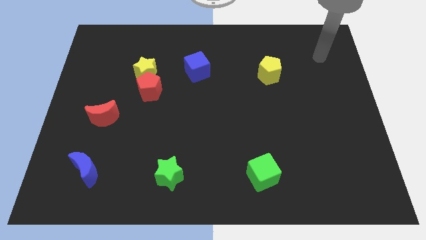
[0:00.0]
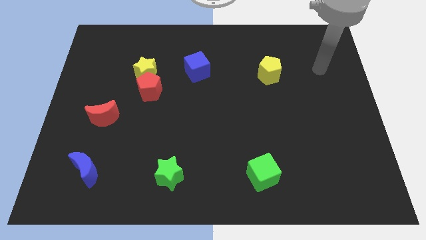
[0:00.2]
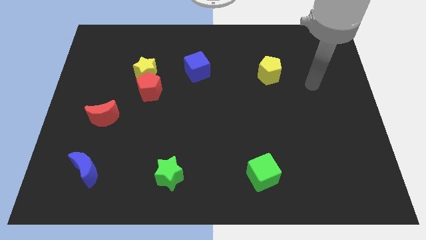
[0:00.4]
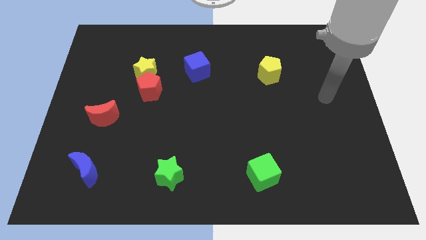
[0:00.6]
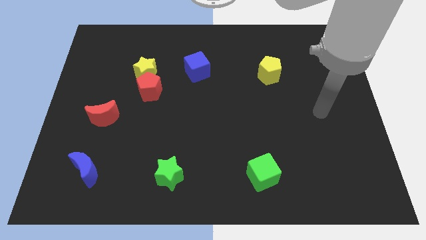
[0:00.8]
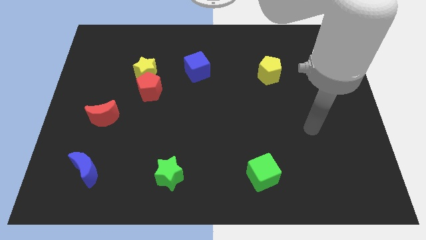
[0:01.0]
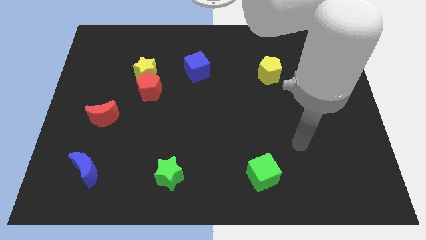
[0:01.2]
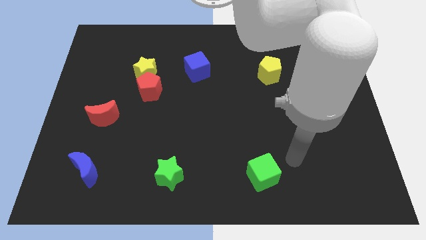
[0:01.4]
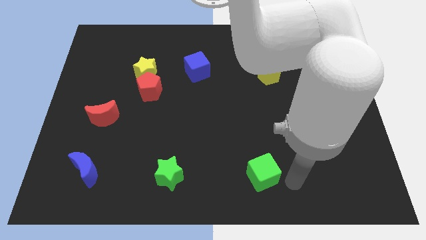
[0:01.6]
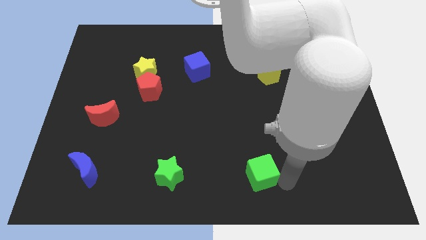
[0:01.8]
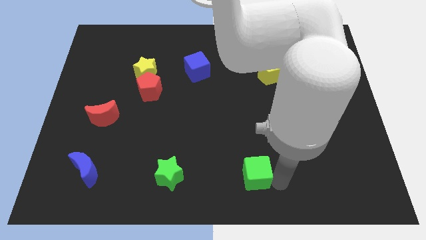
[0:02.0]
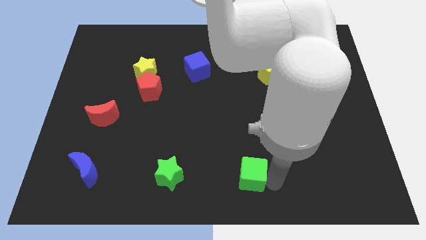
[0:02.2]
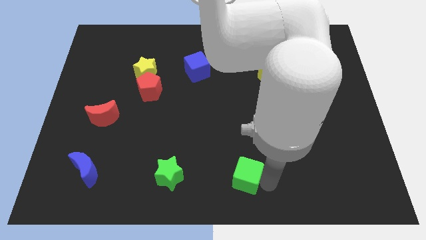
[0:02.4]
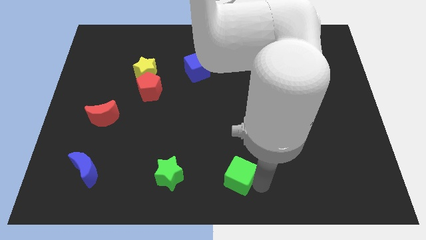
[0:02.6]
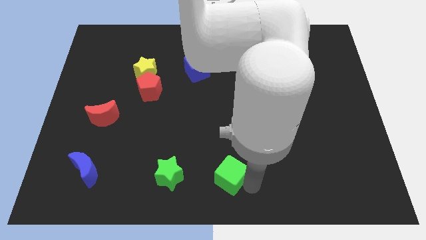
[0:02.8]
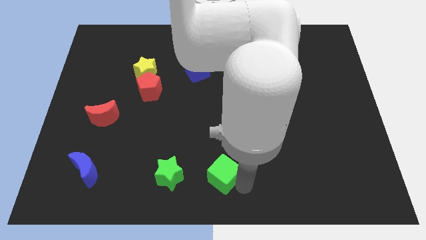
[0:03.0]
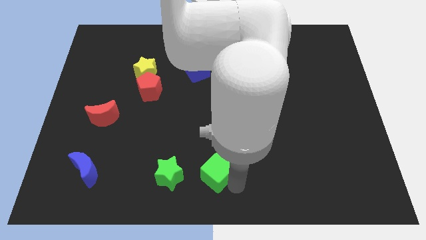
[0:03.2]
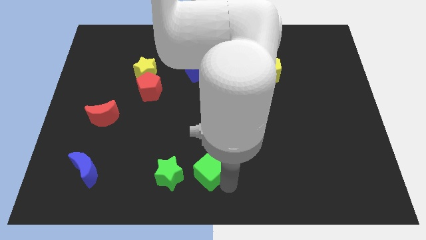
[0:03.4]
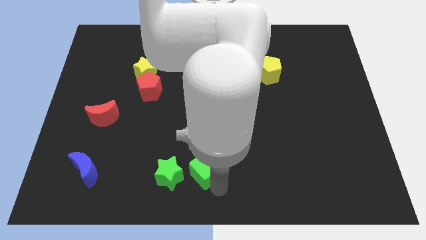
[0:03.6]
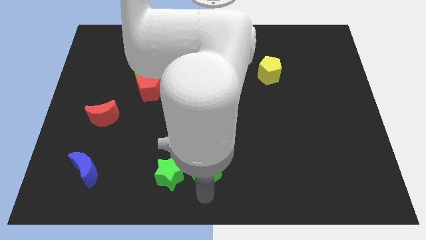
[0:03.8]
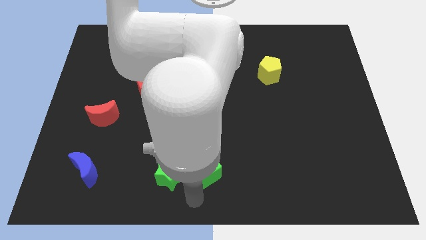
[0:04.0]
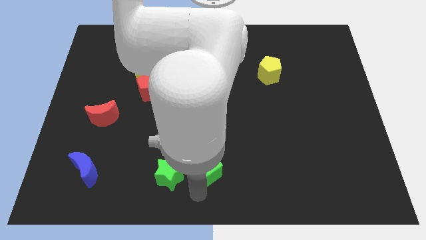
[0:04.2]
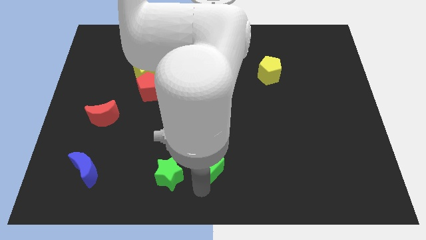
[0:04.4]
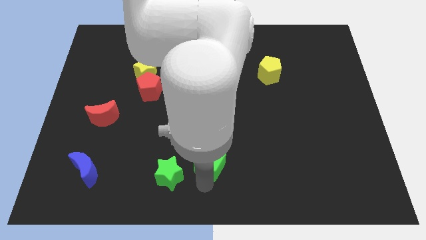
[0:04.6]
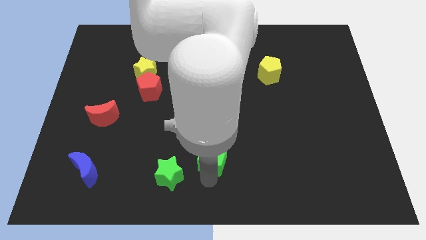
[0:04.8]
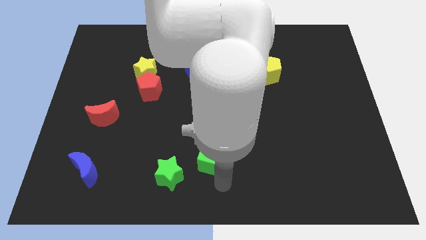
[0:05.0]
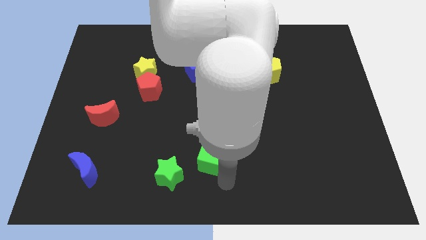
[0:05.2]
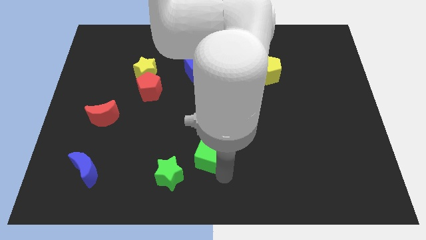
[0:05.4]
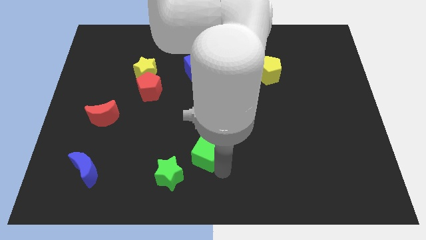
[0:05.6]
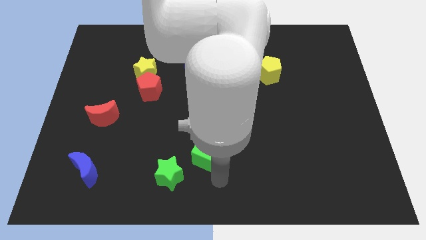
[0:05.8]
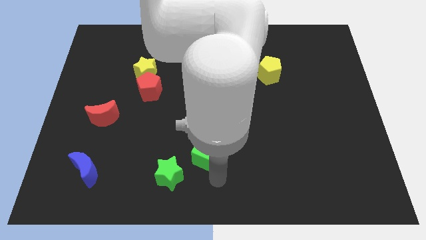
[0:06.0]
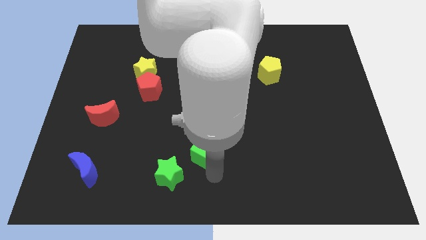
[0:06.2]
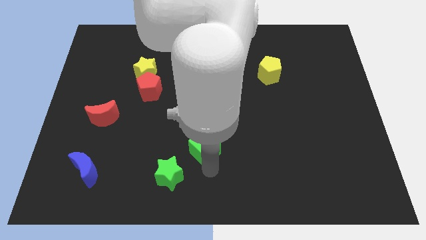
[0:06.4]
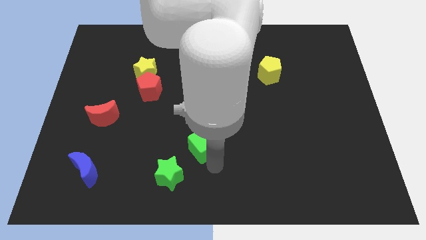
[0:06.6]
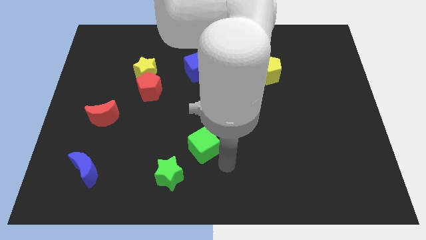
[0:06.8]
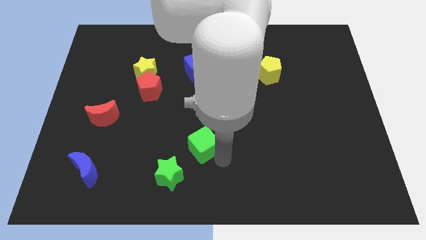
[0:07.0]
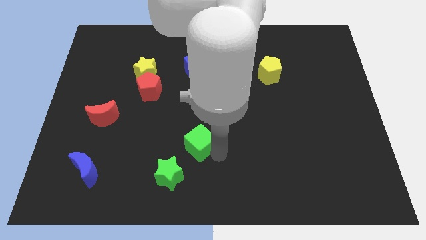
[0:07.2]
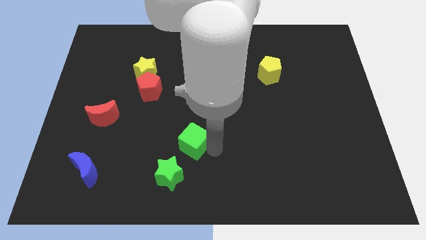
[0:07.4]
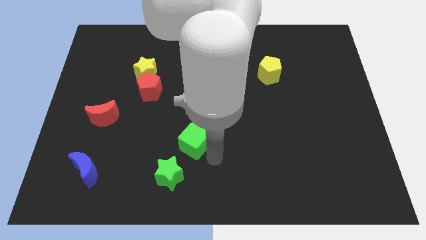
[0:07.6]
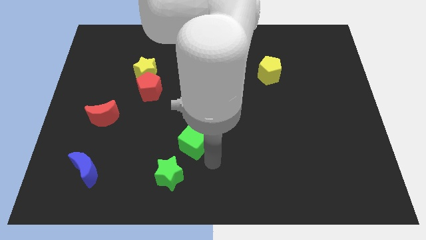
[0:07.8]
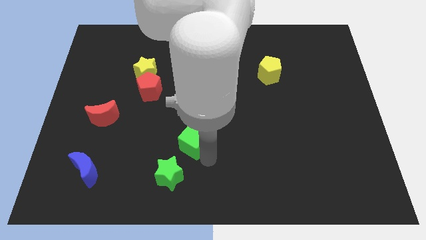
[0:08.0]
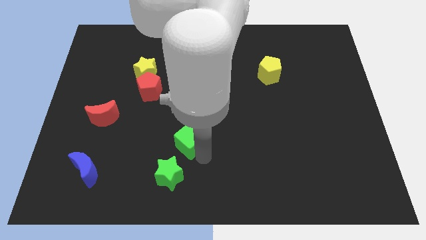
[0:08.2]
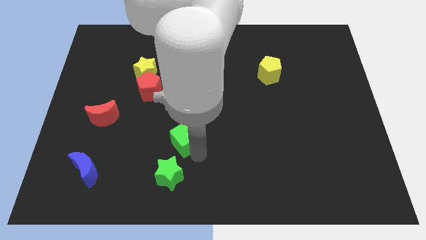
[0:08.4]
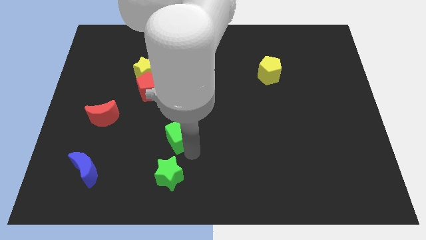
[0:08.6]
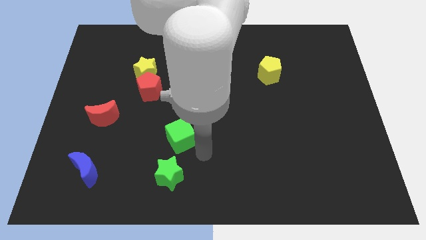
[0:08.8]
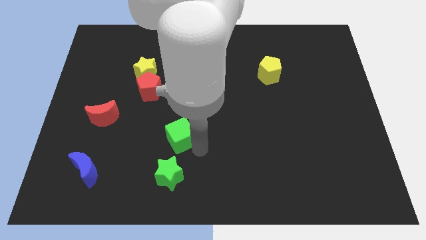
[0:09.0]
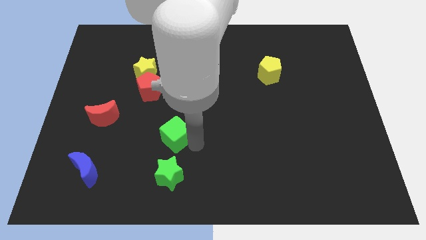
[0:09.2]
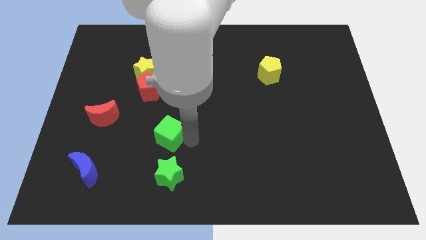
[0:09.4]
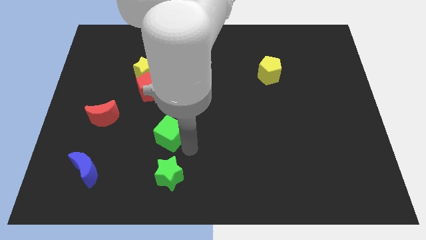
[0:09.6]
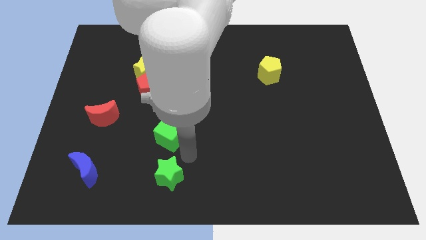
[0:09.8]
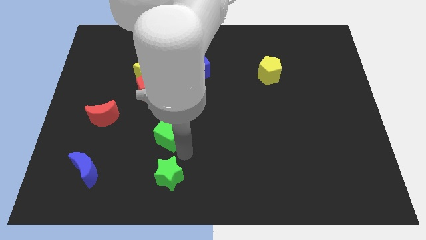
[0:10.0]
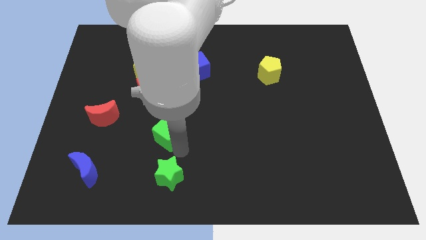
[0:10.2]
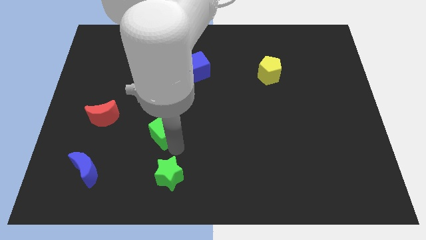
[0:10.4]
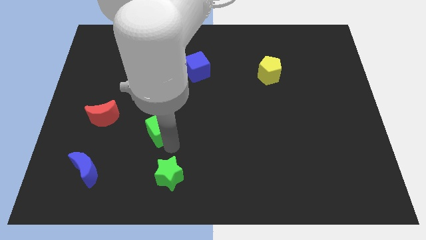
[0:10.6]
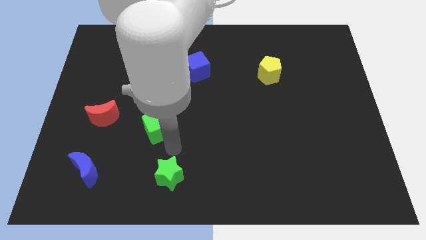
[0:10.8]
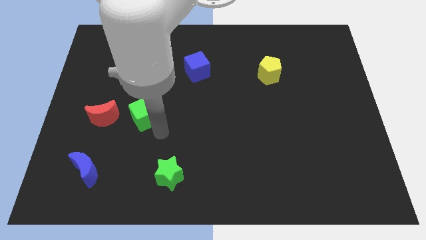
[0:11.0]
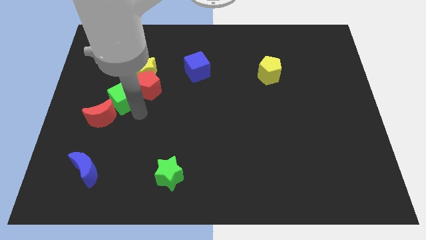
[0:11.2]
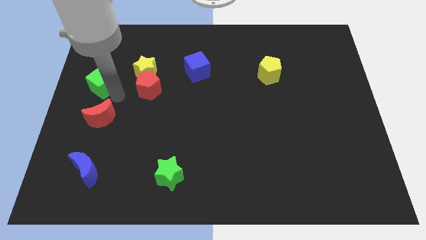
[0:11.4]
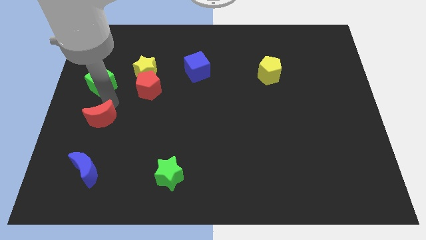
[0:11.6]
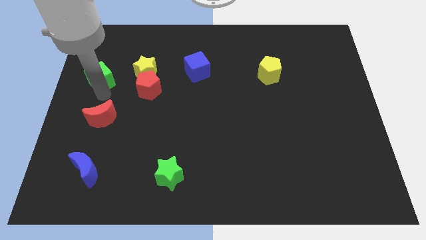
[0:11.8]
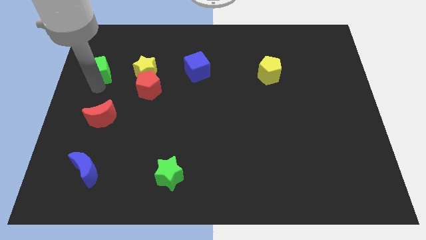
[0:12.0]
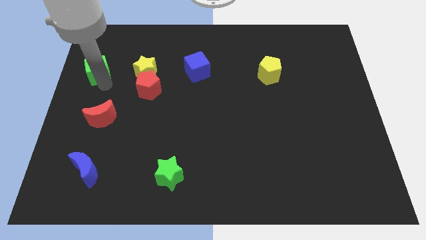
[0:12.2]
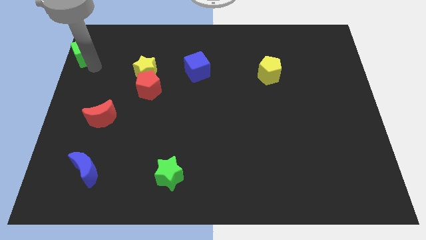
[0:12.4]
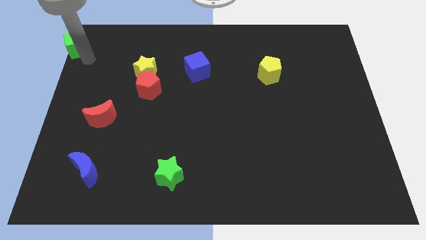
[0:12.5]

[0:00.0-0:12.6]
put the green cube to the upper left corner

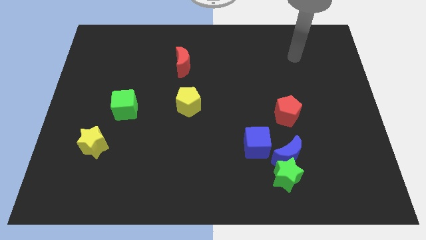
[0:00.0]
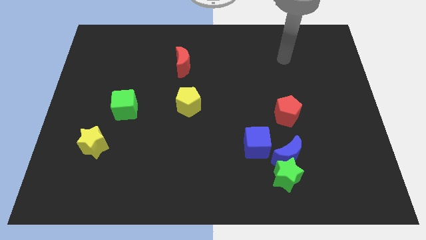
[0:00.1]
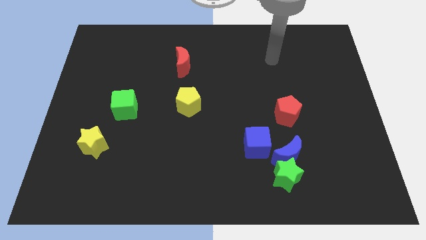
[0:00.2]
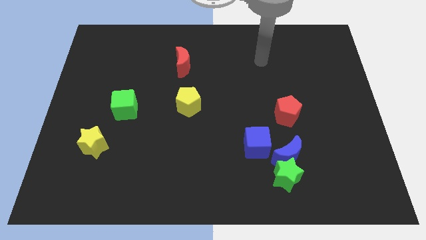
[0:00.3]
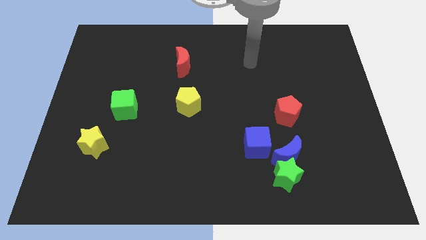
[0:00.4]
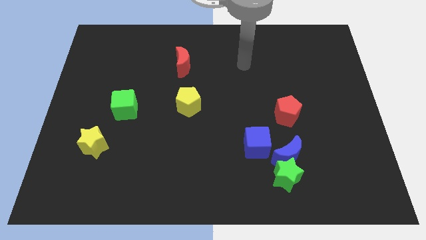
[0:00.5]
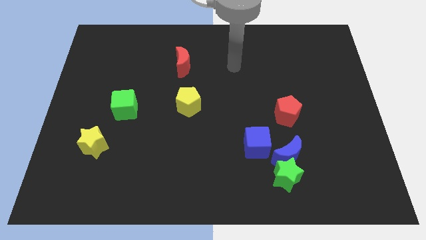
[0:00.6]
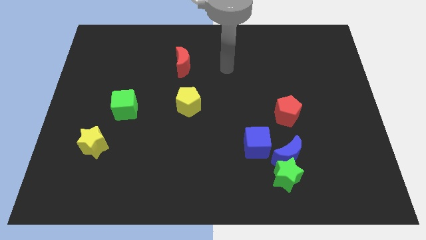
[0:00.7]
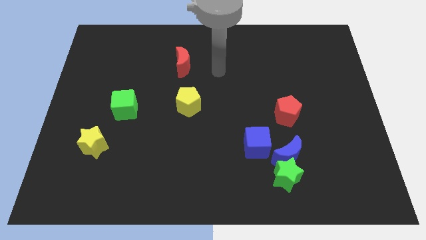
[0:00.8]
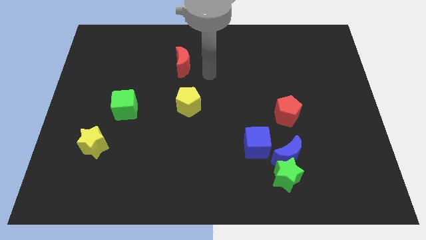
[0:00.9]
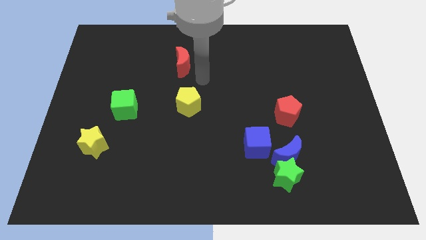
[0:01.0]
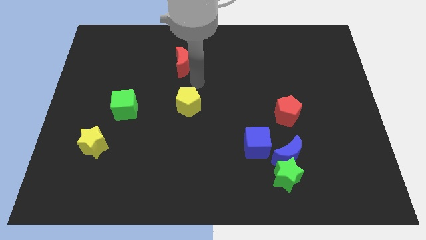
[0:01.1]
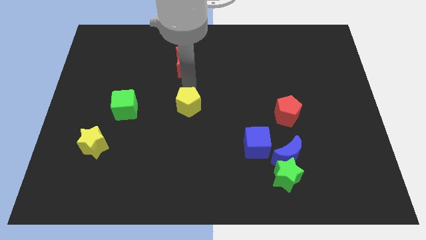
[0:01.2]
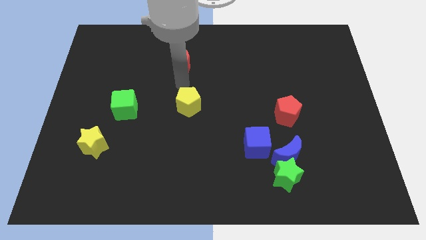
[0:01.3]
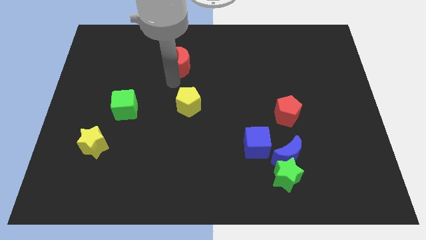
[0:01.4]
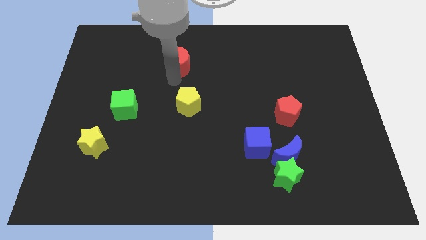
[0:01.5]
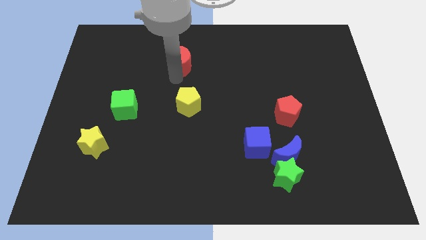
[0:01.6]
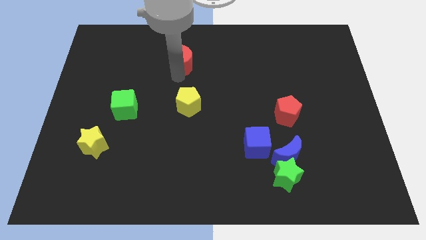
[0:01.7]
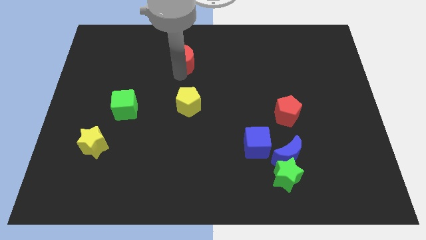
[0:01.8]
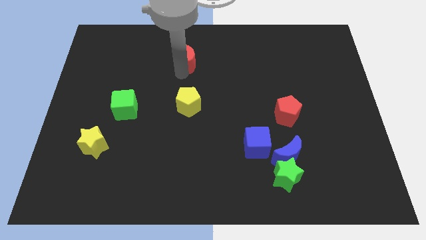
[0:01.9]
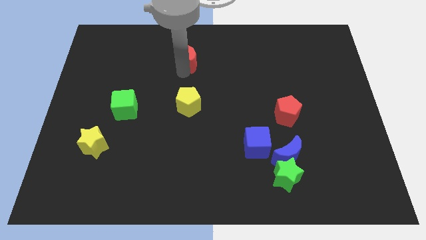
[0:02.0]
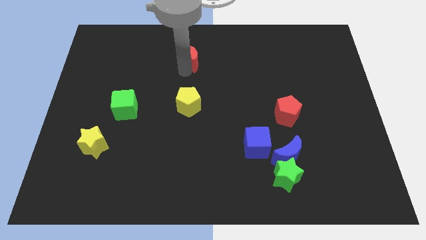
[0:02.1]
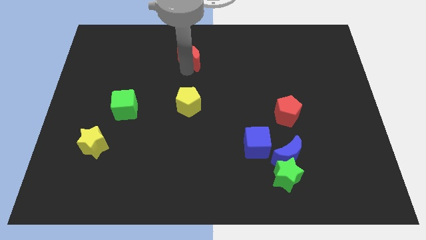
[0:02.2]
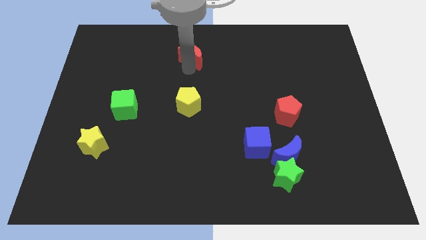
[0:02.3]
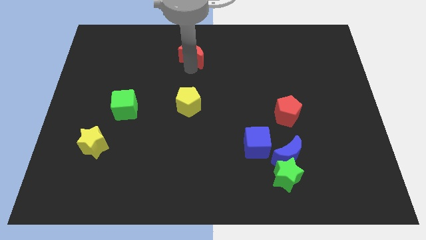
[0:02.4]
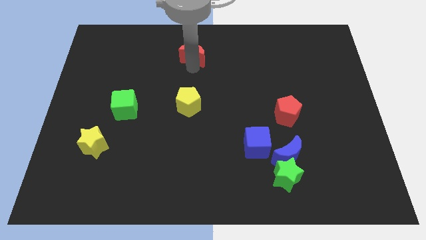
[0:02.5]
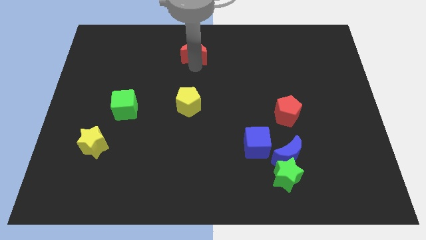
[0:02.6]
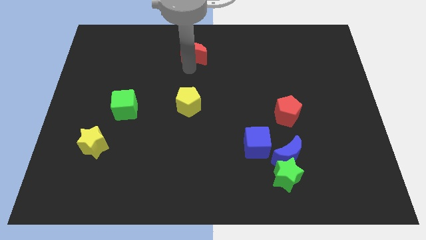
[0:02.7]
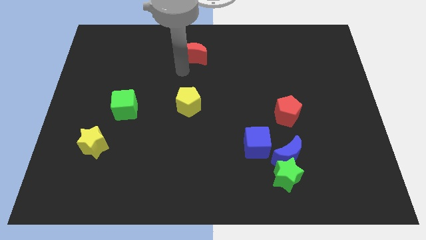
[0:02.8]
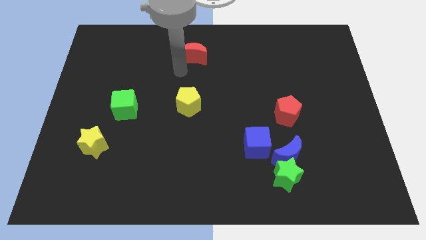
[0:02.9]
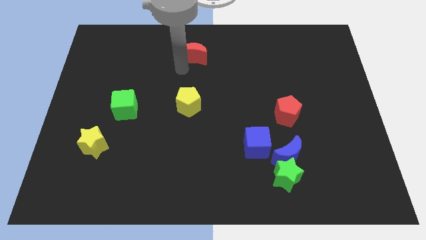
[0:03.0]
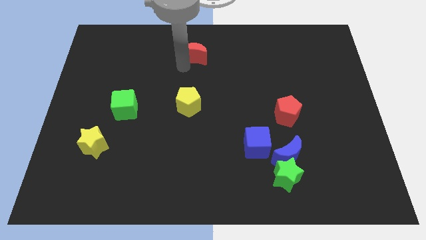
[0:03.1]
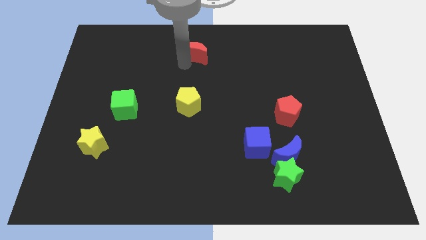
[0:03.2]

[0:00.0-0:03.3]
put the red moon to the top
